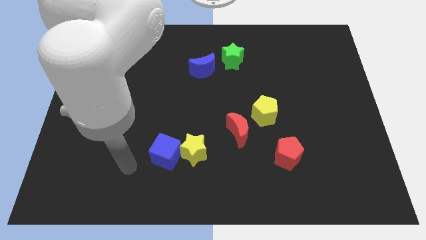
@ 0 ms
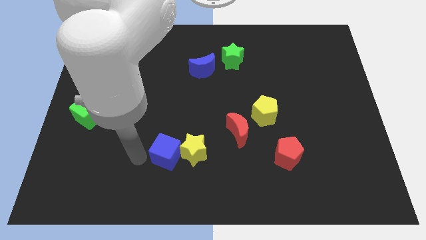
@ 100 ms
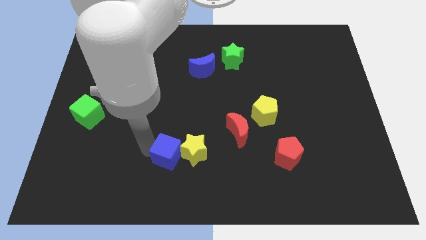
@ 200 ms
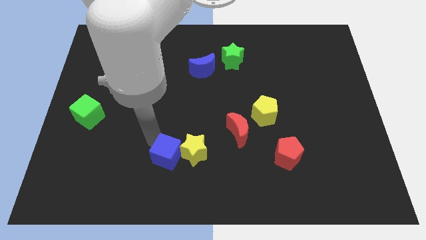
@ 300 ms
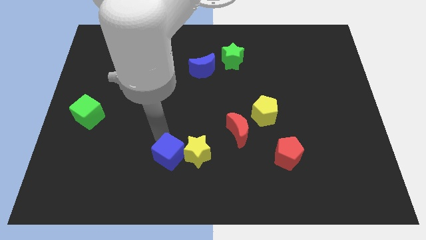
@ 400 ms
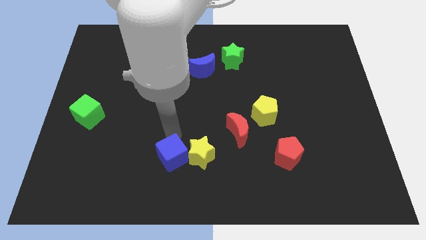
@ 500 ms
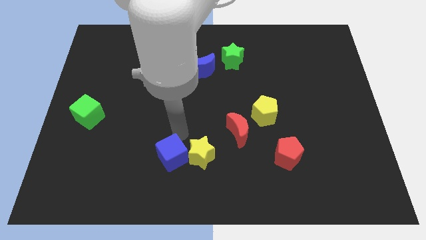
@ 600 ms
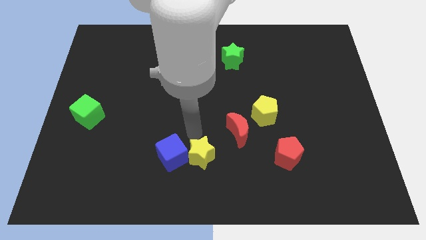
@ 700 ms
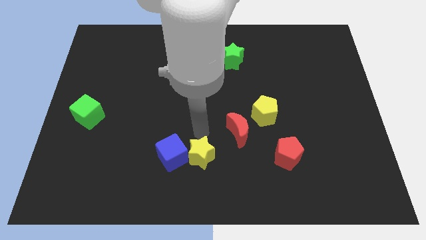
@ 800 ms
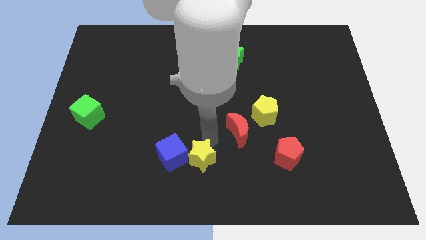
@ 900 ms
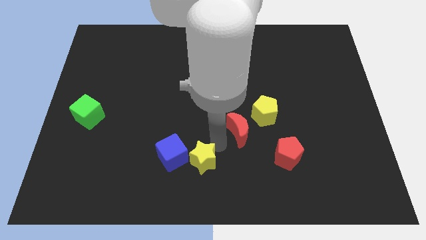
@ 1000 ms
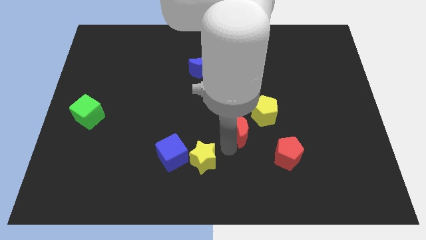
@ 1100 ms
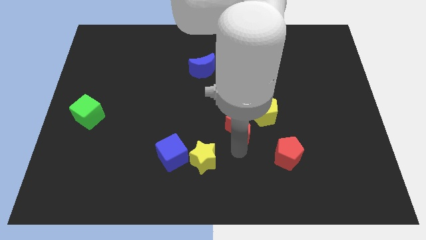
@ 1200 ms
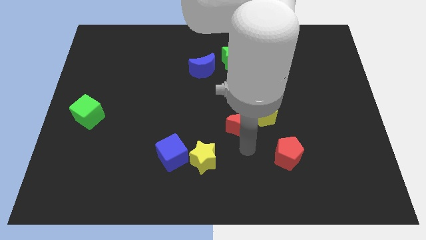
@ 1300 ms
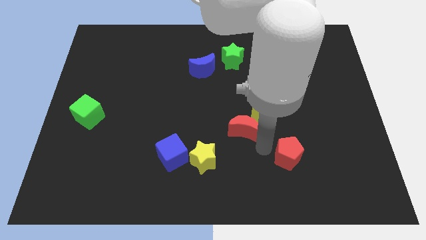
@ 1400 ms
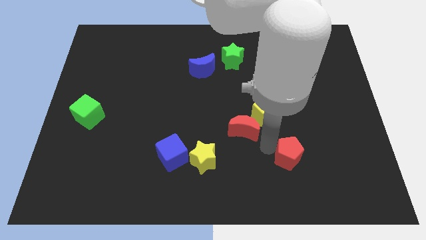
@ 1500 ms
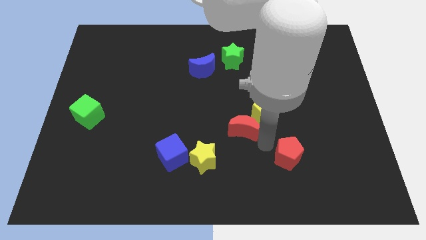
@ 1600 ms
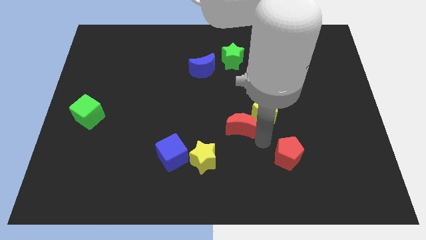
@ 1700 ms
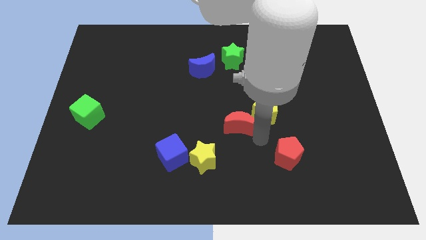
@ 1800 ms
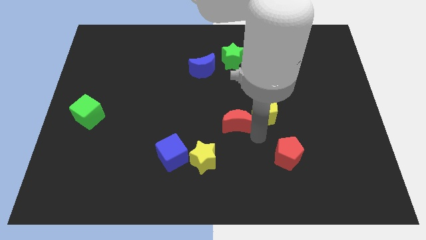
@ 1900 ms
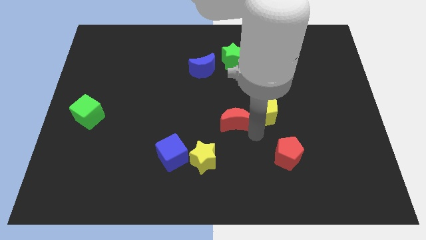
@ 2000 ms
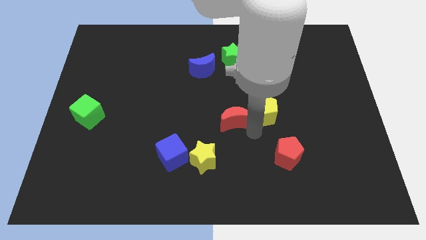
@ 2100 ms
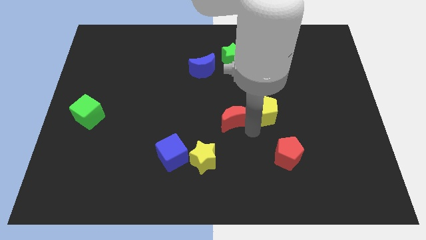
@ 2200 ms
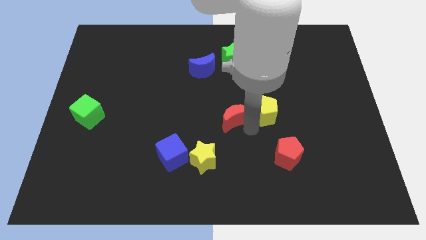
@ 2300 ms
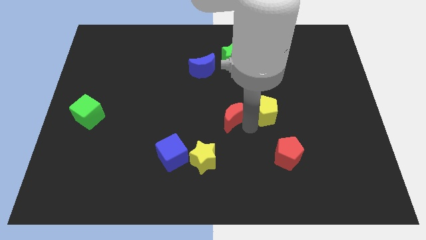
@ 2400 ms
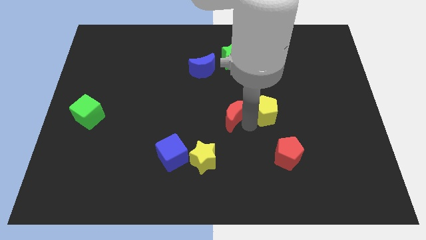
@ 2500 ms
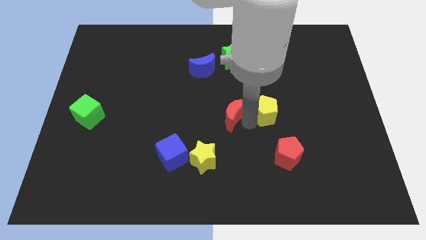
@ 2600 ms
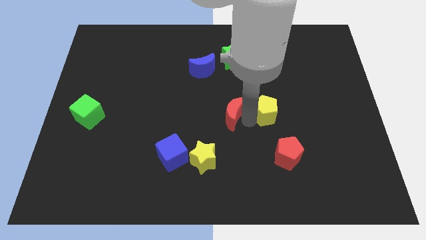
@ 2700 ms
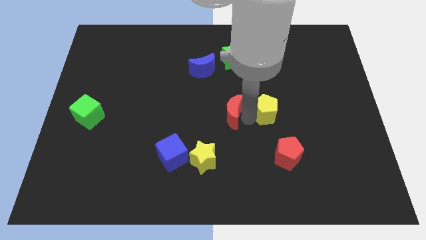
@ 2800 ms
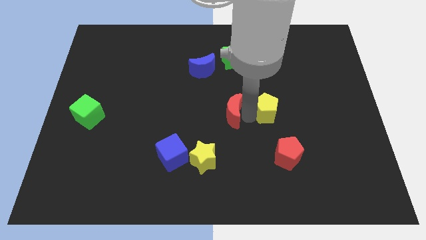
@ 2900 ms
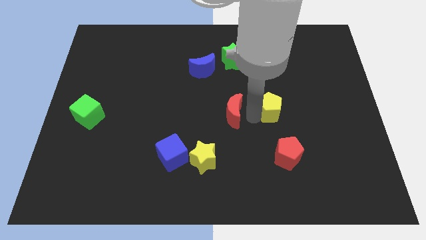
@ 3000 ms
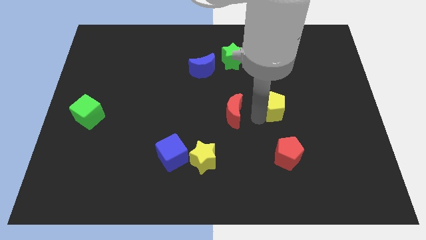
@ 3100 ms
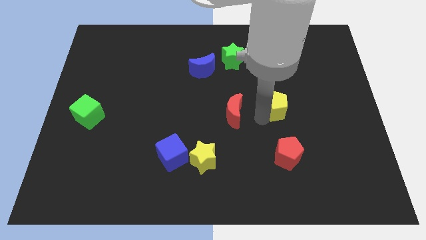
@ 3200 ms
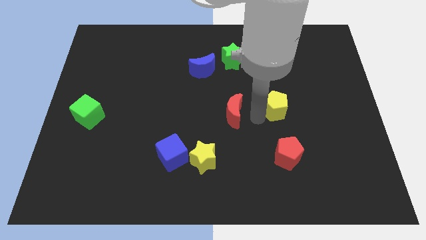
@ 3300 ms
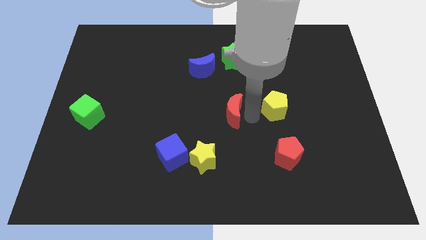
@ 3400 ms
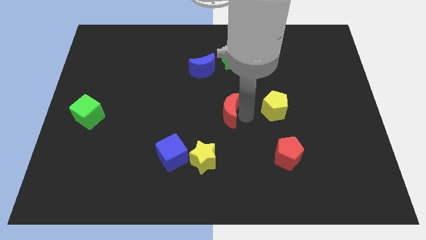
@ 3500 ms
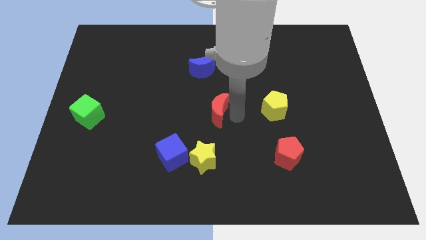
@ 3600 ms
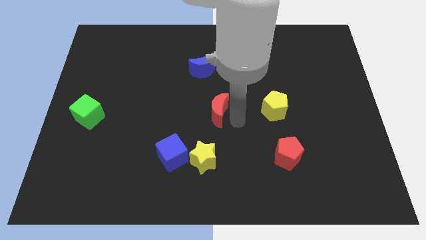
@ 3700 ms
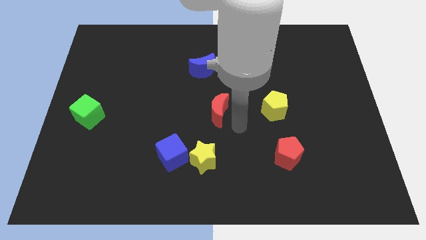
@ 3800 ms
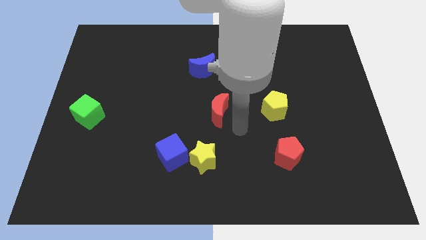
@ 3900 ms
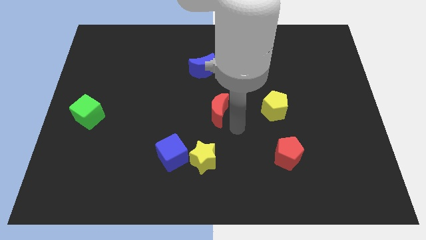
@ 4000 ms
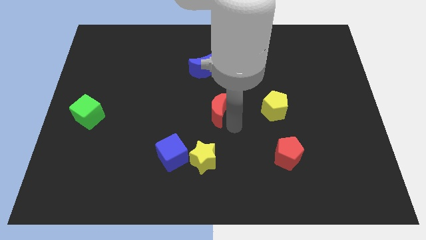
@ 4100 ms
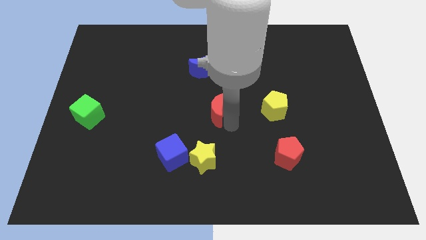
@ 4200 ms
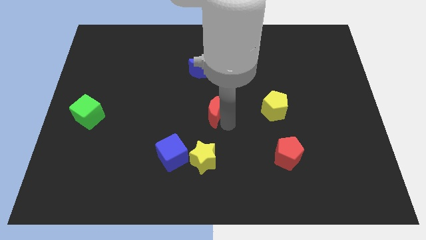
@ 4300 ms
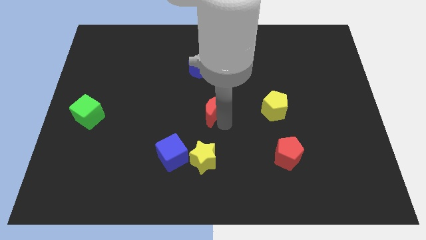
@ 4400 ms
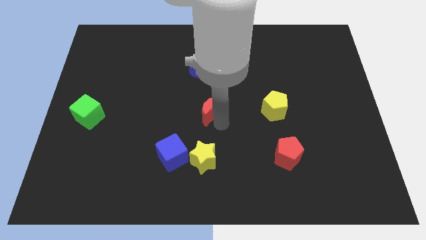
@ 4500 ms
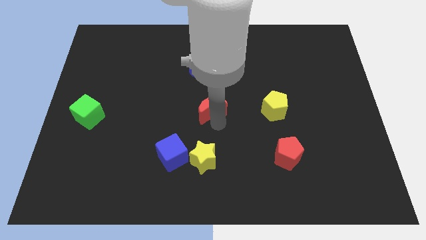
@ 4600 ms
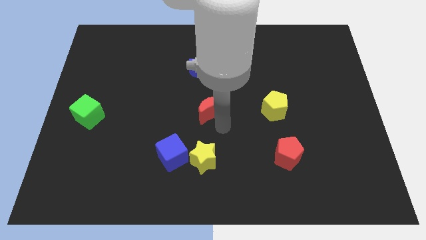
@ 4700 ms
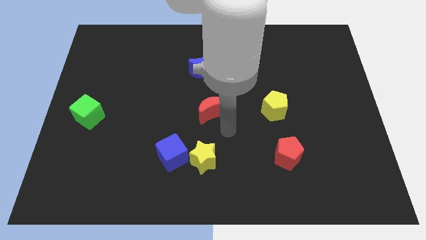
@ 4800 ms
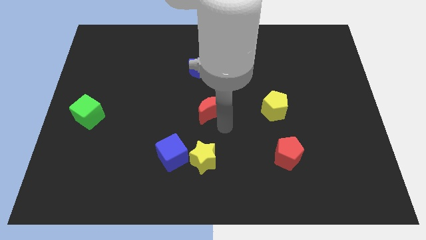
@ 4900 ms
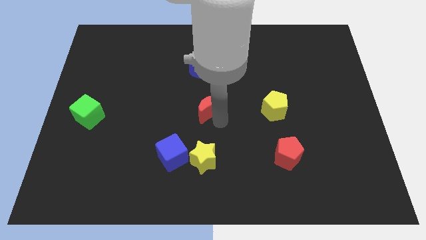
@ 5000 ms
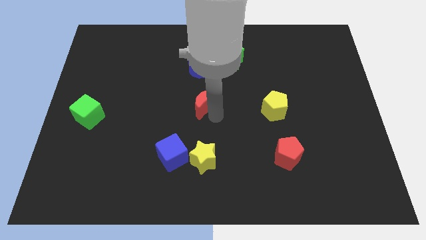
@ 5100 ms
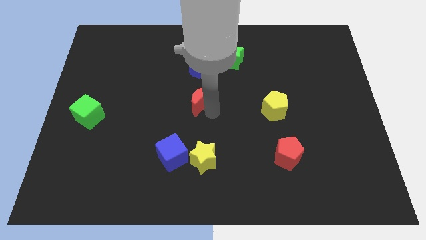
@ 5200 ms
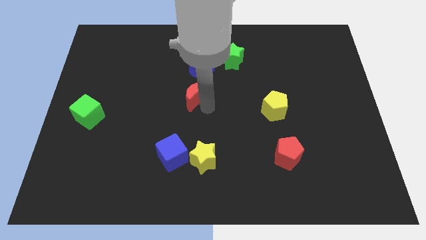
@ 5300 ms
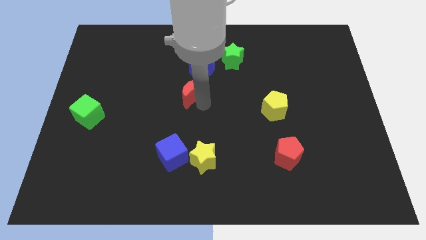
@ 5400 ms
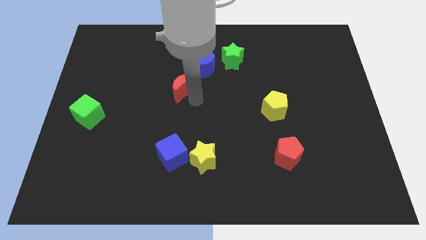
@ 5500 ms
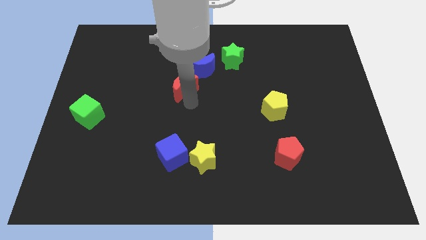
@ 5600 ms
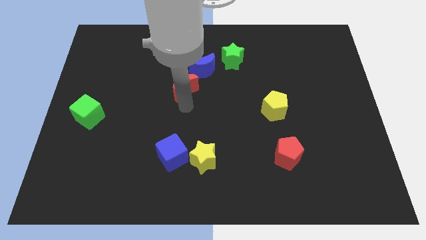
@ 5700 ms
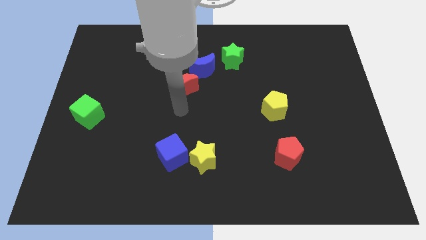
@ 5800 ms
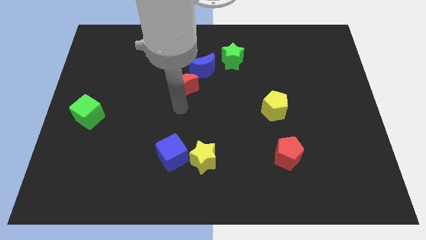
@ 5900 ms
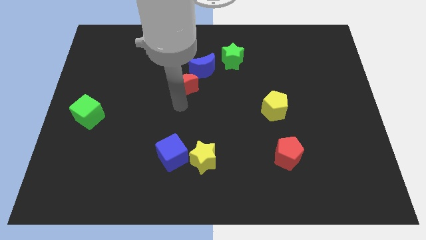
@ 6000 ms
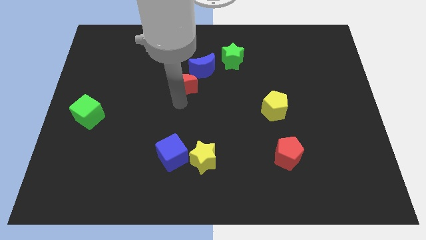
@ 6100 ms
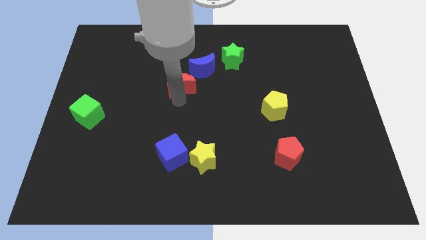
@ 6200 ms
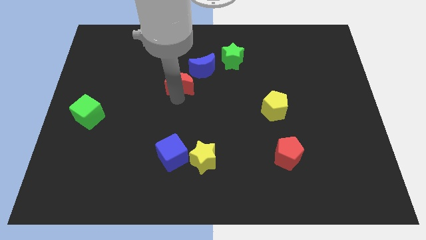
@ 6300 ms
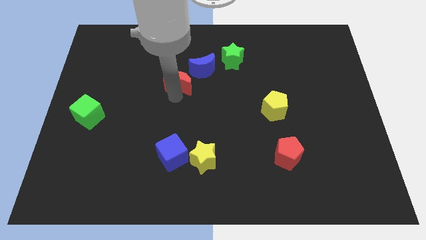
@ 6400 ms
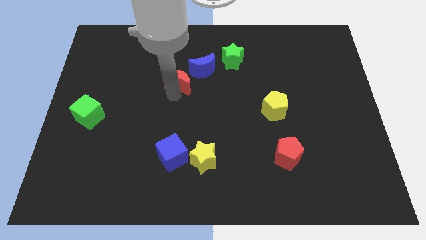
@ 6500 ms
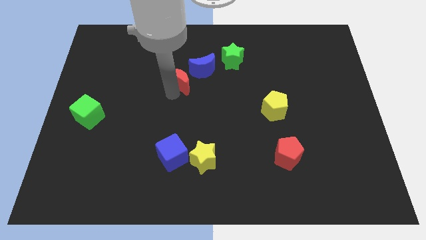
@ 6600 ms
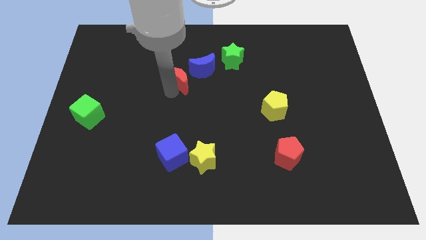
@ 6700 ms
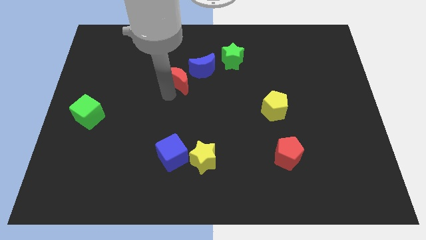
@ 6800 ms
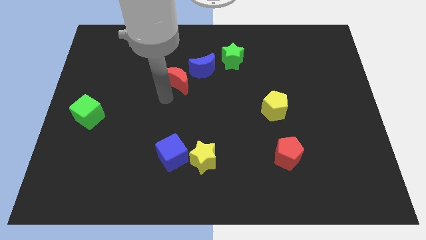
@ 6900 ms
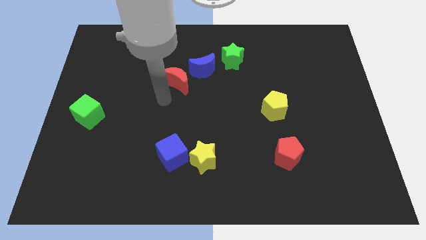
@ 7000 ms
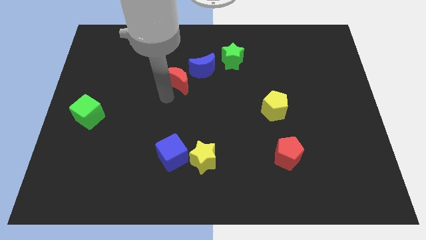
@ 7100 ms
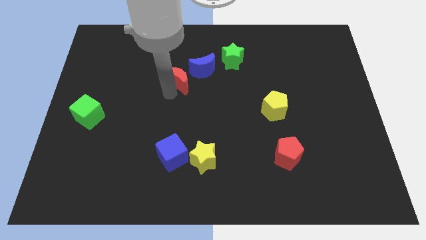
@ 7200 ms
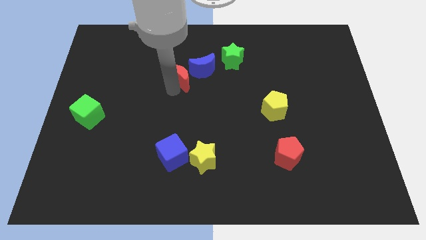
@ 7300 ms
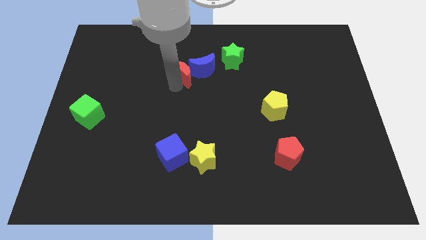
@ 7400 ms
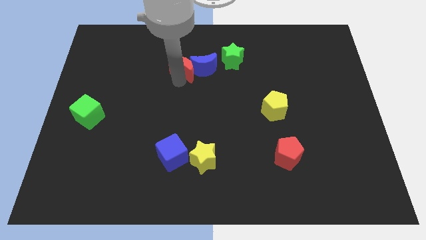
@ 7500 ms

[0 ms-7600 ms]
push the red moon to the left of the green star
